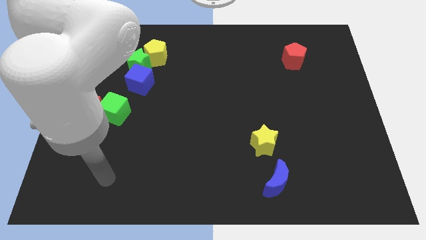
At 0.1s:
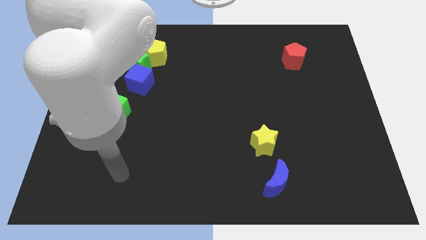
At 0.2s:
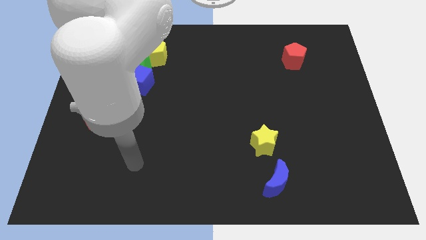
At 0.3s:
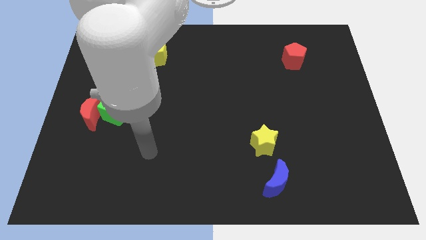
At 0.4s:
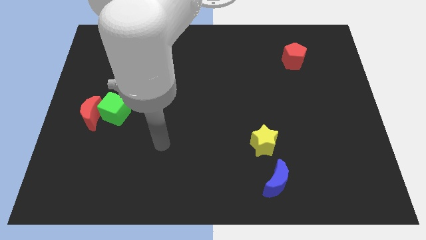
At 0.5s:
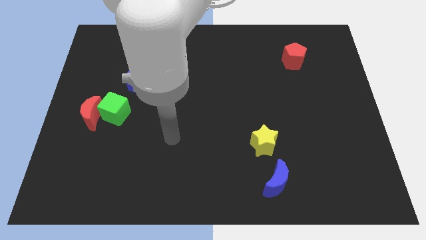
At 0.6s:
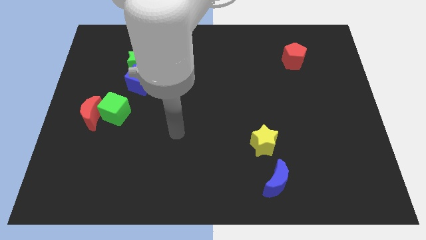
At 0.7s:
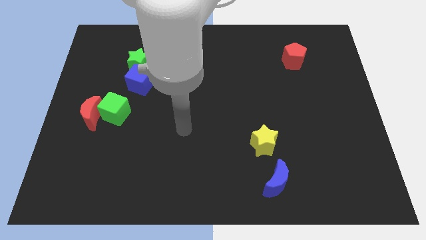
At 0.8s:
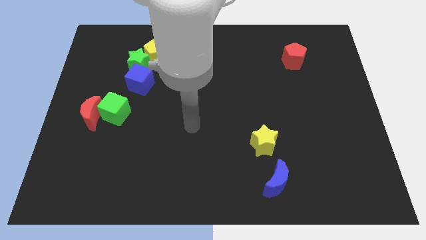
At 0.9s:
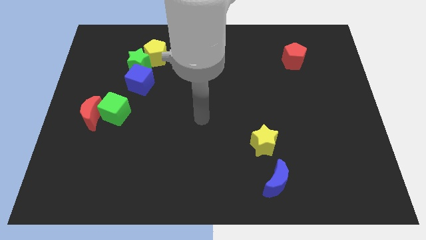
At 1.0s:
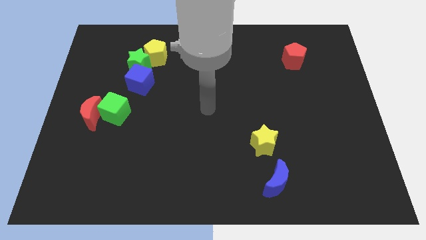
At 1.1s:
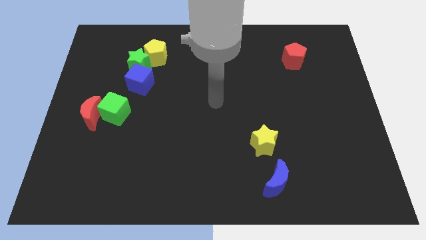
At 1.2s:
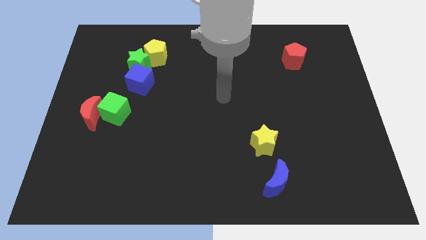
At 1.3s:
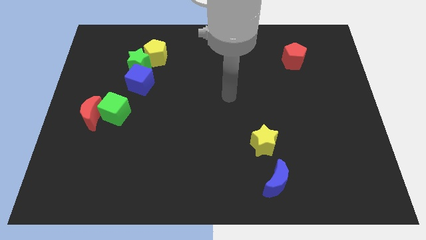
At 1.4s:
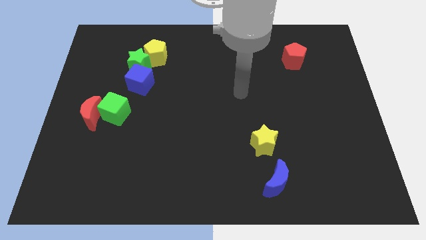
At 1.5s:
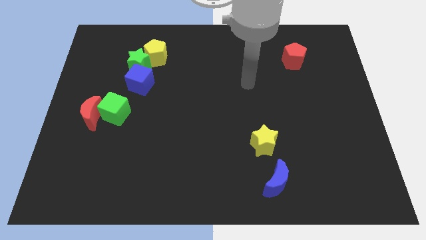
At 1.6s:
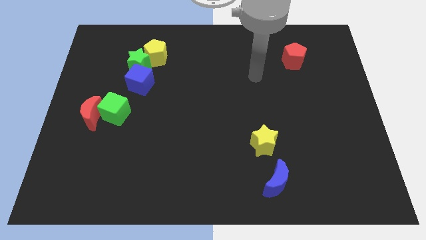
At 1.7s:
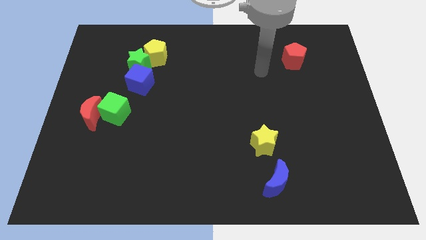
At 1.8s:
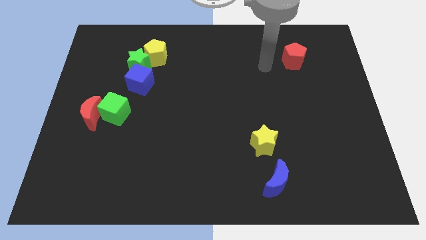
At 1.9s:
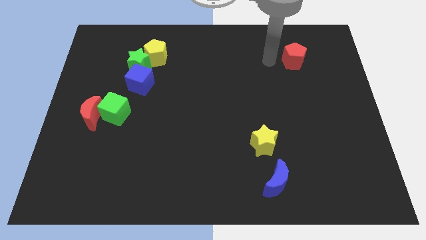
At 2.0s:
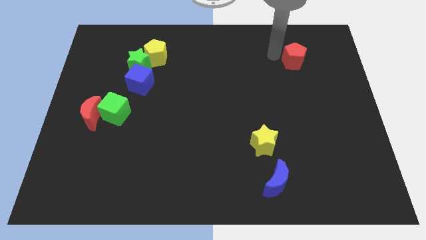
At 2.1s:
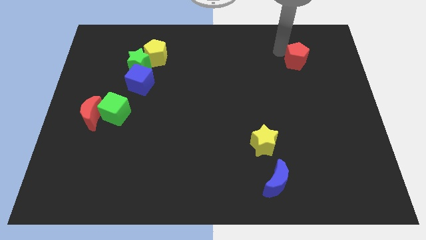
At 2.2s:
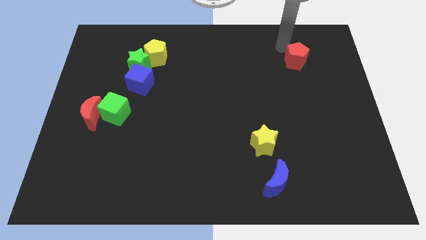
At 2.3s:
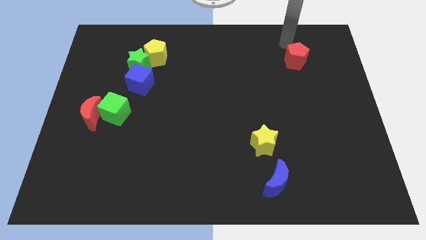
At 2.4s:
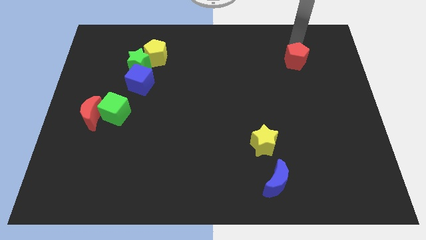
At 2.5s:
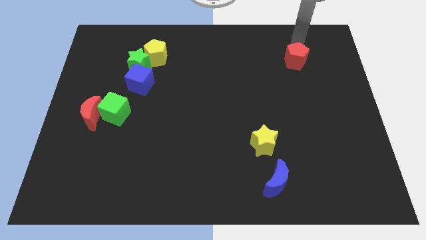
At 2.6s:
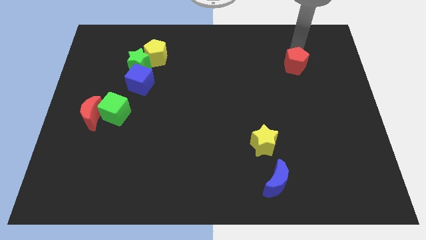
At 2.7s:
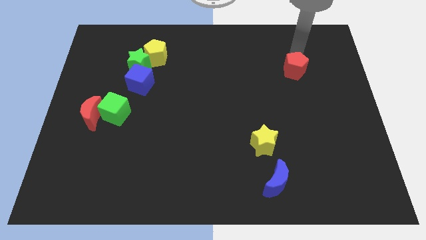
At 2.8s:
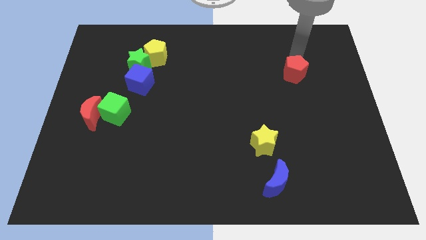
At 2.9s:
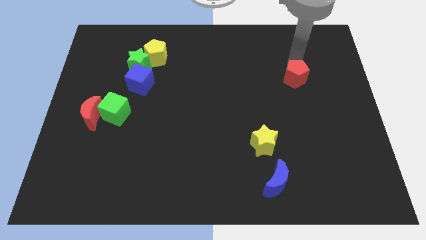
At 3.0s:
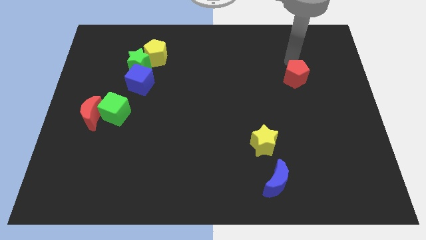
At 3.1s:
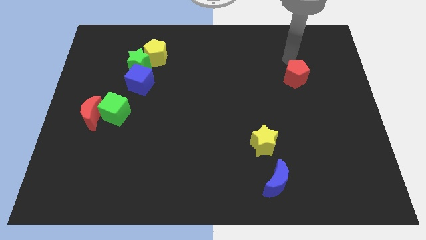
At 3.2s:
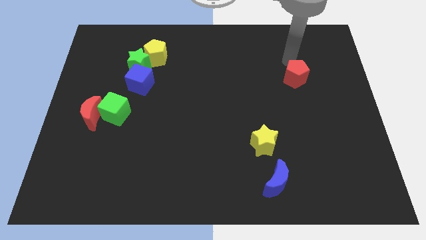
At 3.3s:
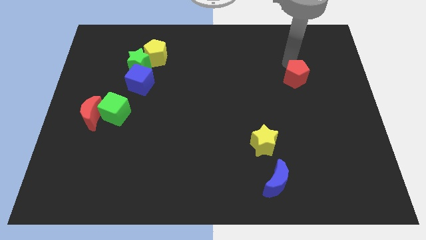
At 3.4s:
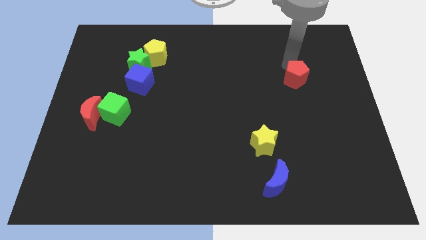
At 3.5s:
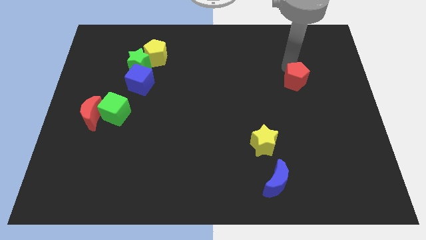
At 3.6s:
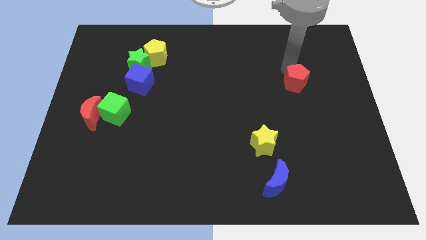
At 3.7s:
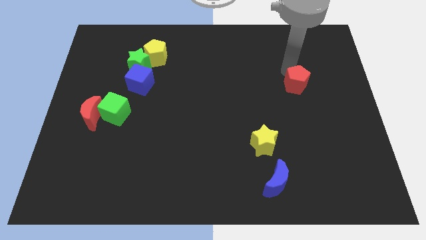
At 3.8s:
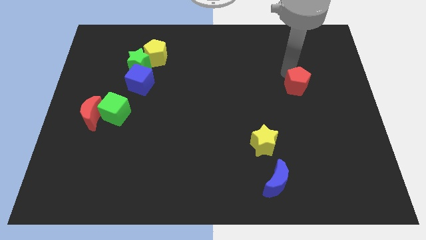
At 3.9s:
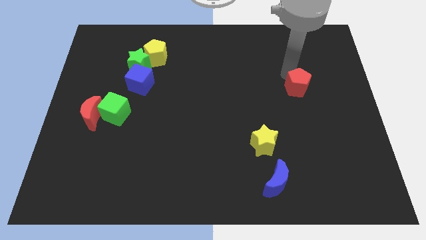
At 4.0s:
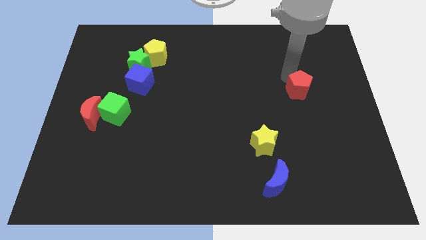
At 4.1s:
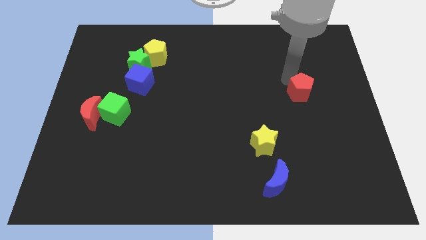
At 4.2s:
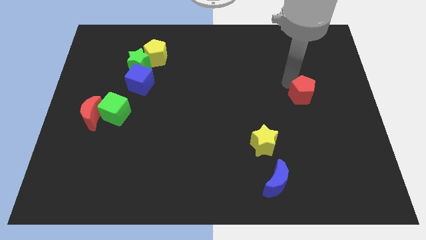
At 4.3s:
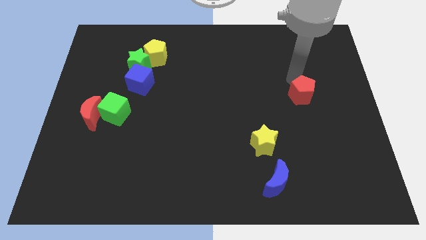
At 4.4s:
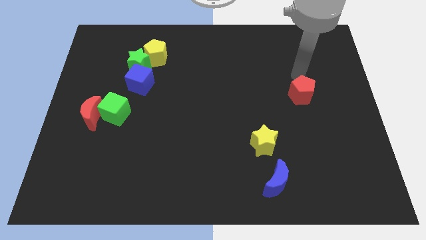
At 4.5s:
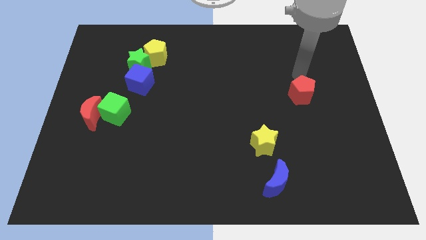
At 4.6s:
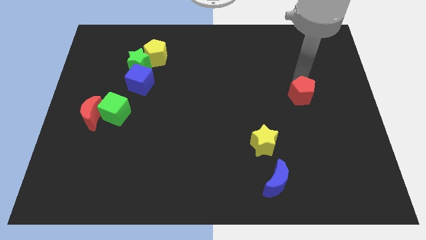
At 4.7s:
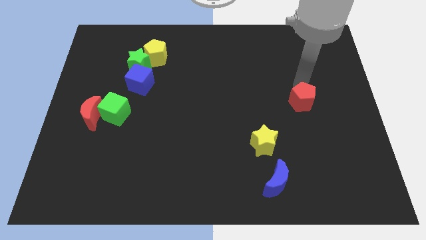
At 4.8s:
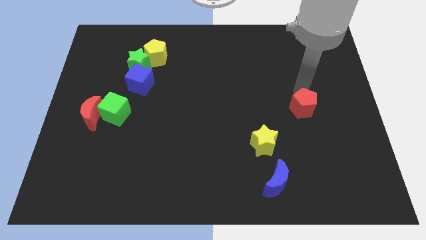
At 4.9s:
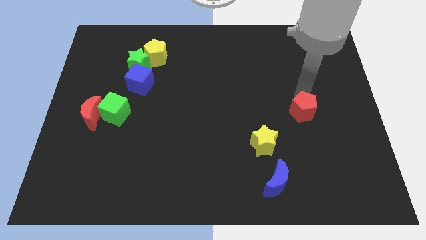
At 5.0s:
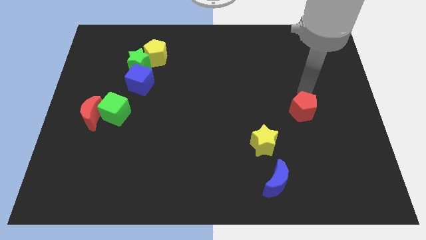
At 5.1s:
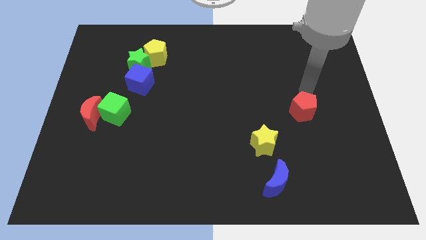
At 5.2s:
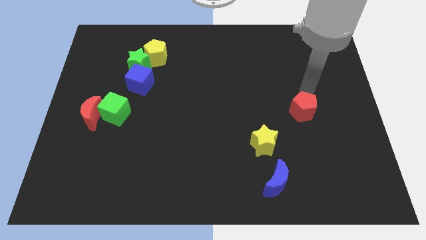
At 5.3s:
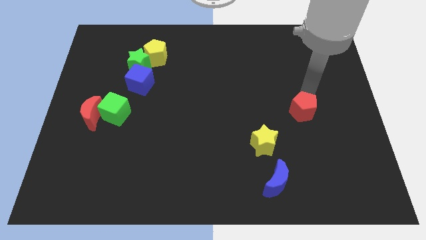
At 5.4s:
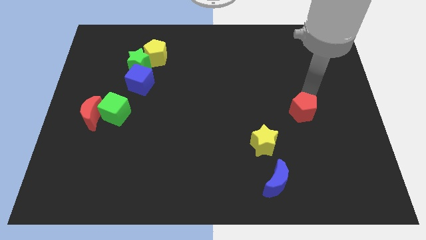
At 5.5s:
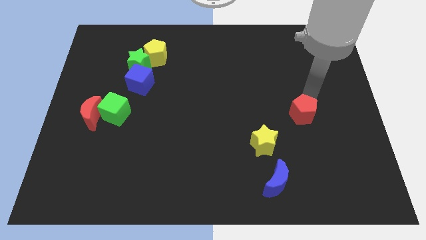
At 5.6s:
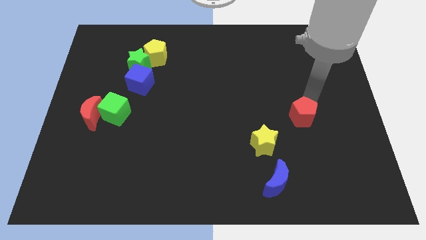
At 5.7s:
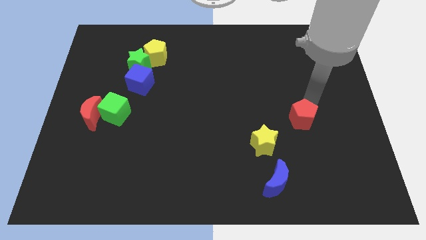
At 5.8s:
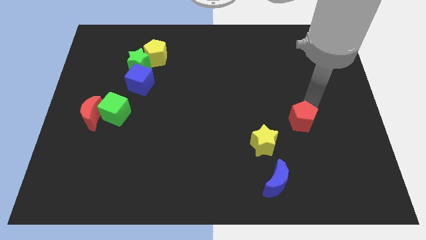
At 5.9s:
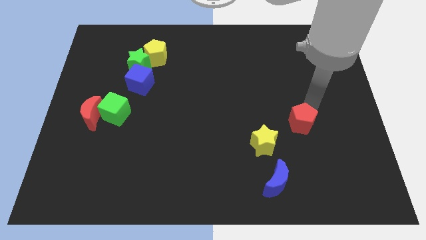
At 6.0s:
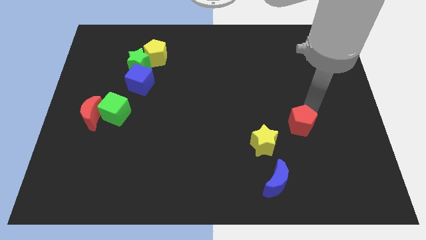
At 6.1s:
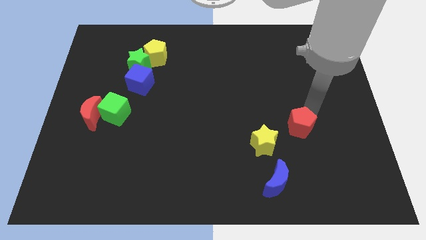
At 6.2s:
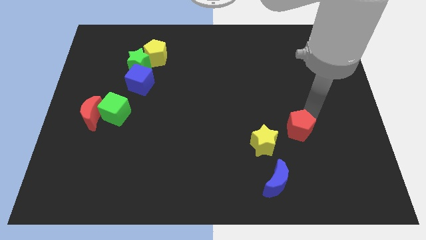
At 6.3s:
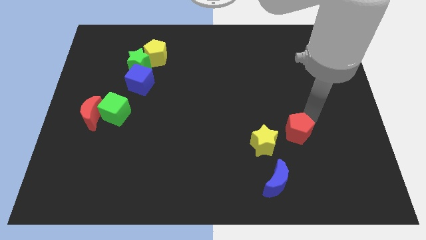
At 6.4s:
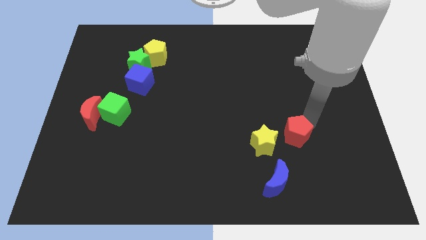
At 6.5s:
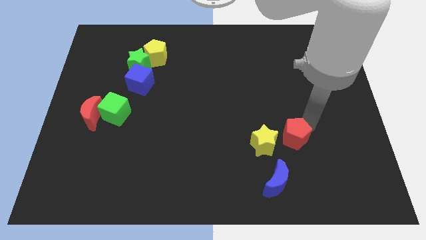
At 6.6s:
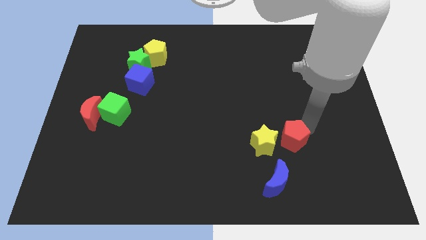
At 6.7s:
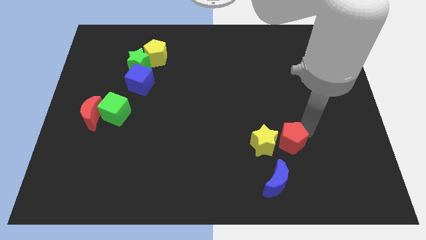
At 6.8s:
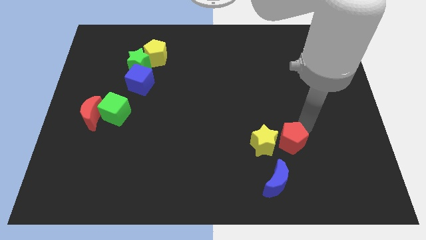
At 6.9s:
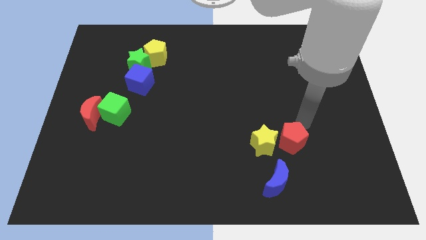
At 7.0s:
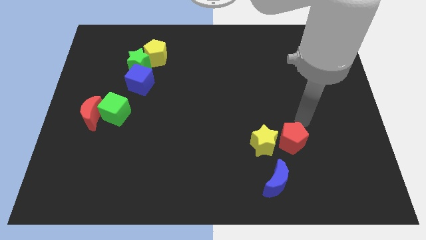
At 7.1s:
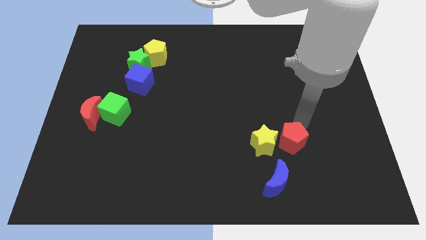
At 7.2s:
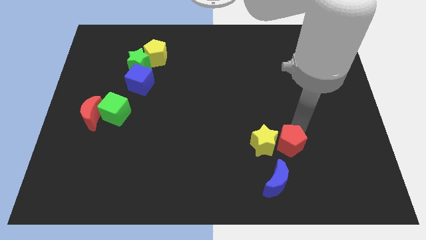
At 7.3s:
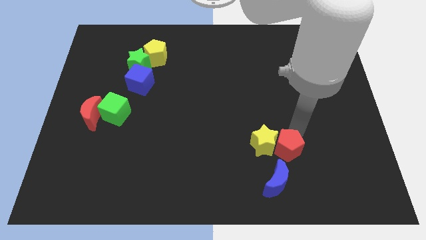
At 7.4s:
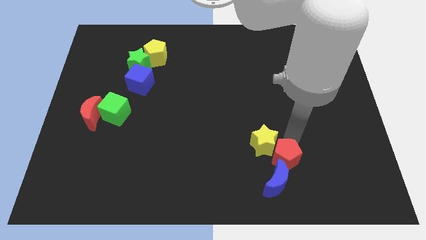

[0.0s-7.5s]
slide the red pentagon close to the blue moon
